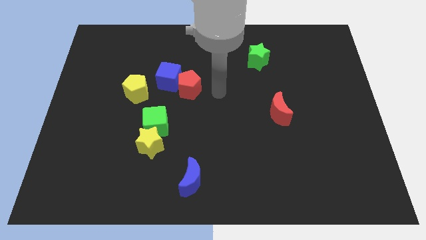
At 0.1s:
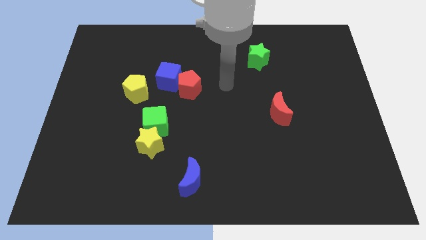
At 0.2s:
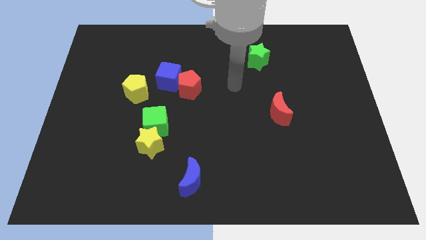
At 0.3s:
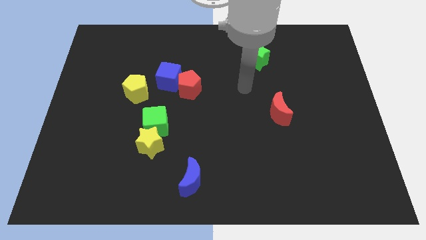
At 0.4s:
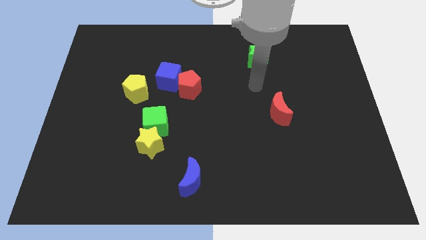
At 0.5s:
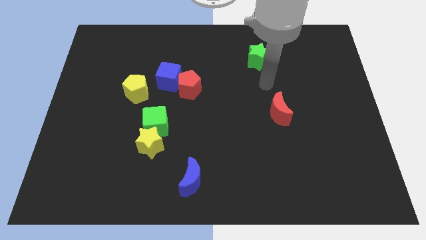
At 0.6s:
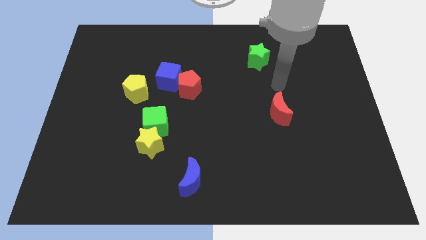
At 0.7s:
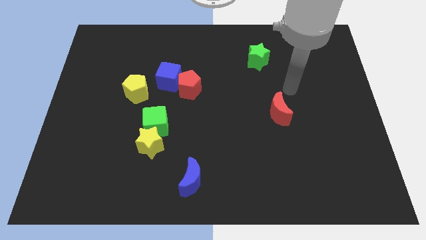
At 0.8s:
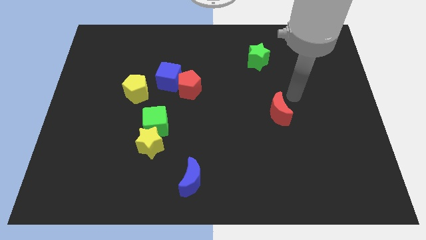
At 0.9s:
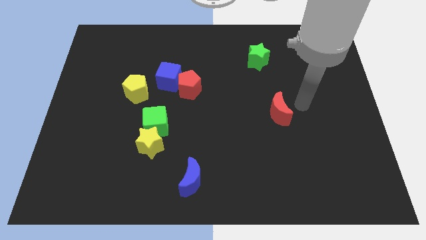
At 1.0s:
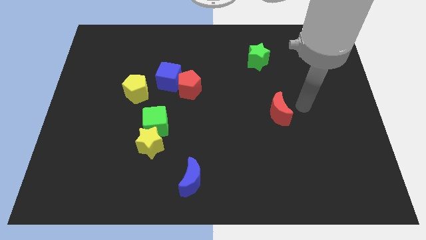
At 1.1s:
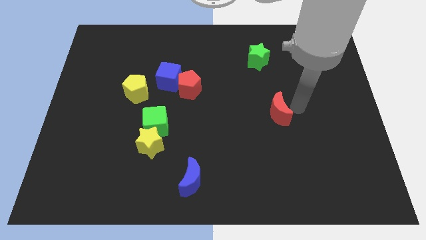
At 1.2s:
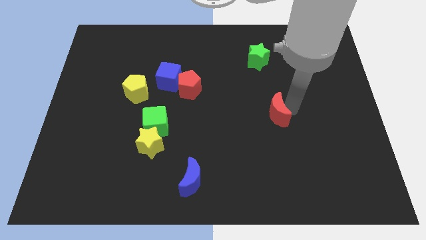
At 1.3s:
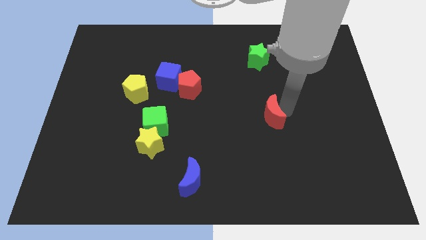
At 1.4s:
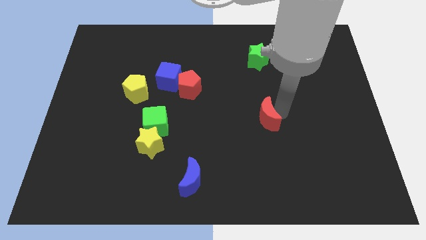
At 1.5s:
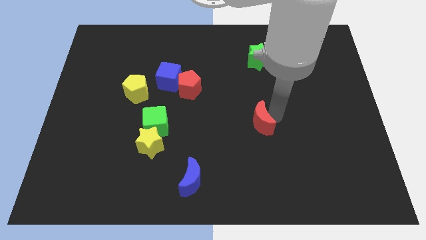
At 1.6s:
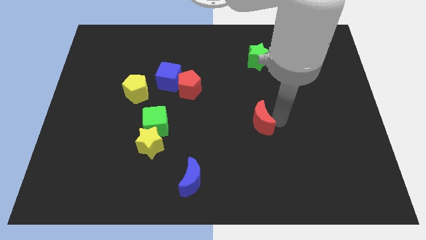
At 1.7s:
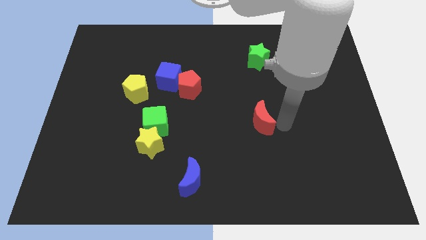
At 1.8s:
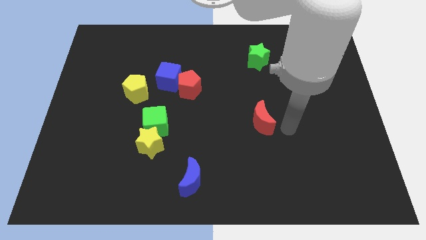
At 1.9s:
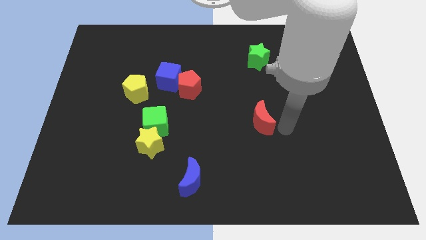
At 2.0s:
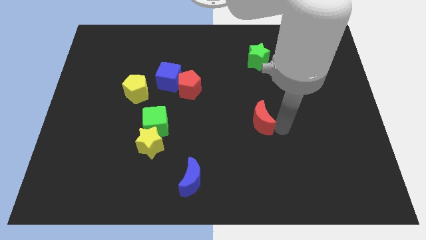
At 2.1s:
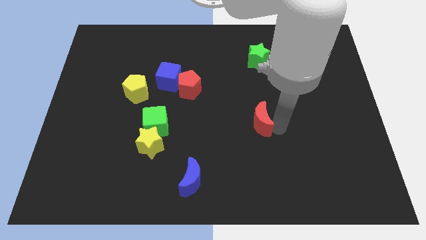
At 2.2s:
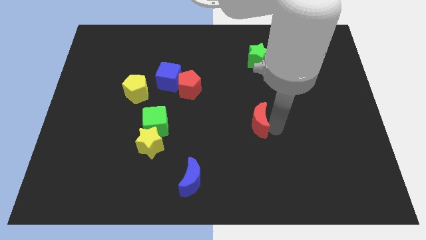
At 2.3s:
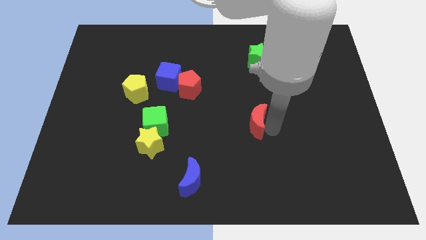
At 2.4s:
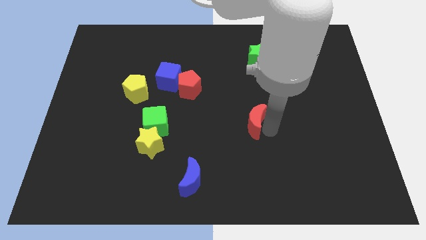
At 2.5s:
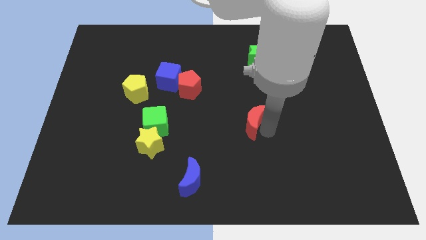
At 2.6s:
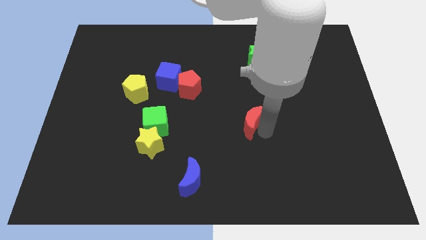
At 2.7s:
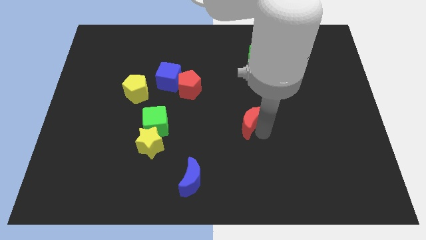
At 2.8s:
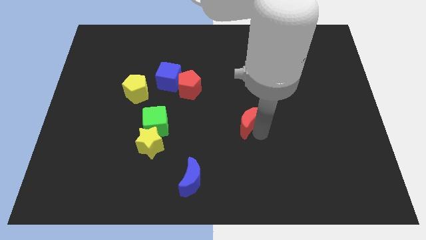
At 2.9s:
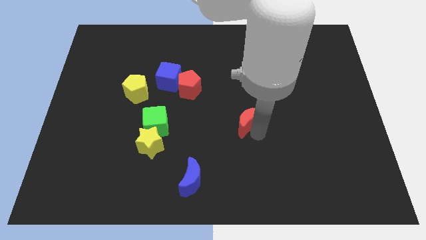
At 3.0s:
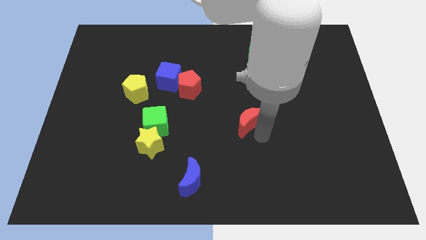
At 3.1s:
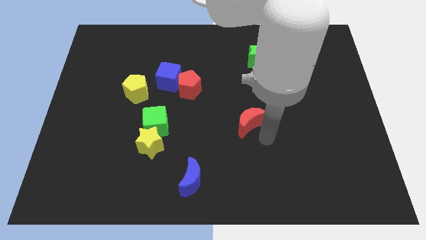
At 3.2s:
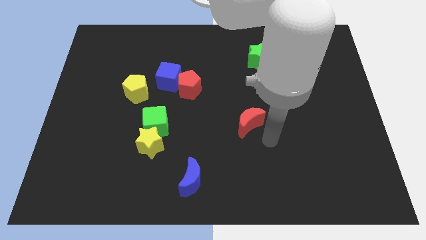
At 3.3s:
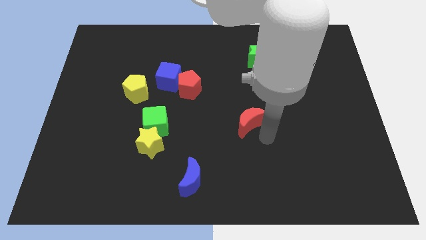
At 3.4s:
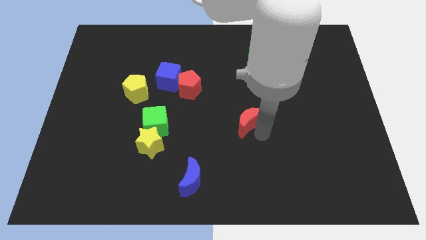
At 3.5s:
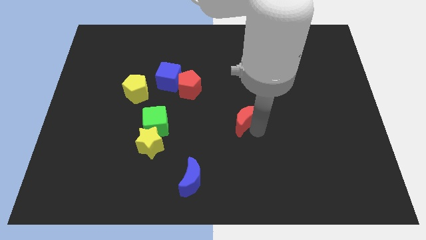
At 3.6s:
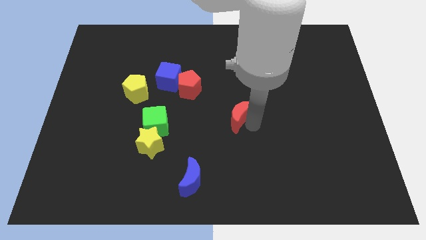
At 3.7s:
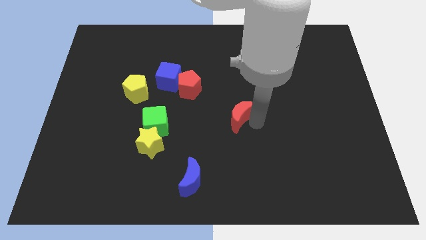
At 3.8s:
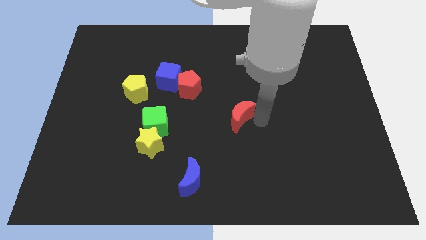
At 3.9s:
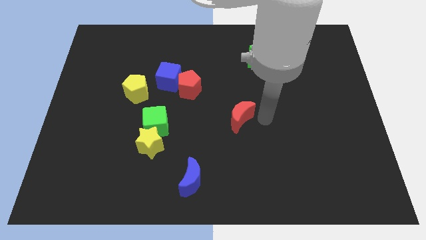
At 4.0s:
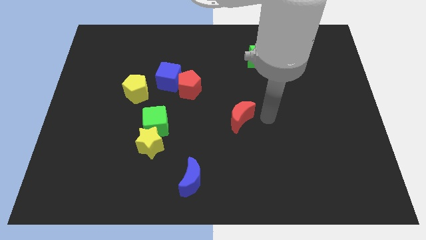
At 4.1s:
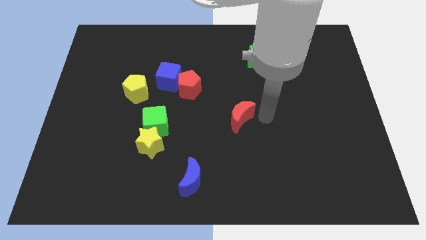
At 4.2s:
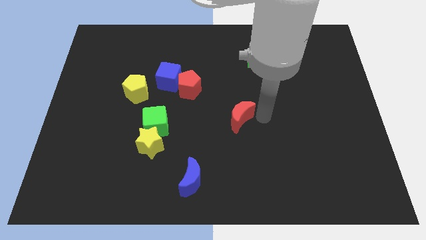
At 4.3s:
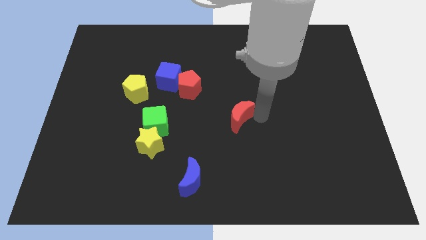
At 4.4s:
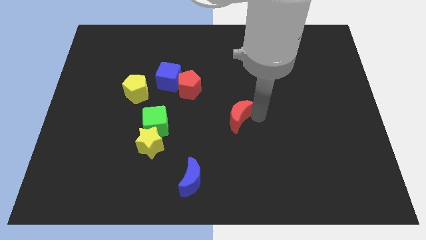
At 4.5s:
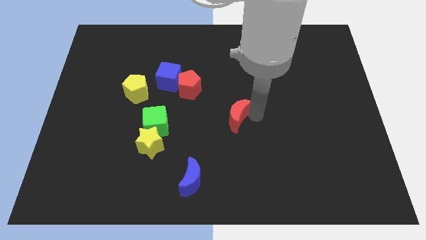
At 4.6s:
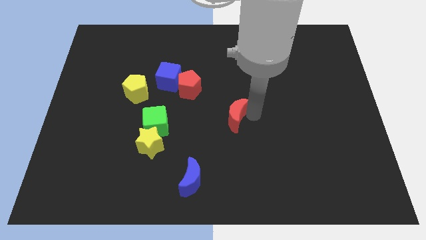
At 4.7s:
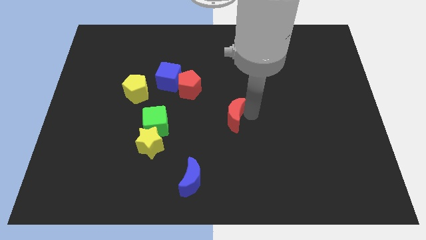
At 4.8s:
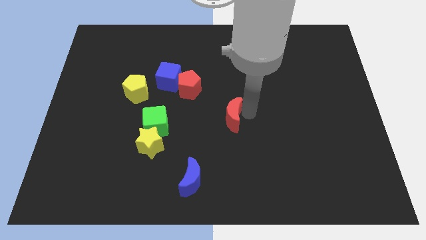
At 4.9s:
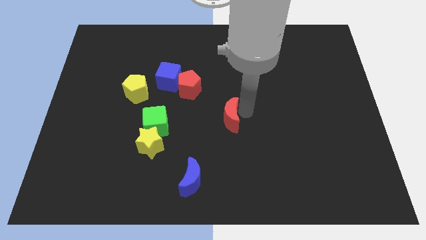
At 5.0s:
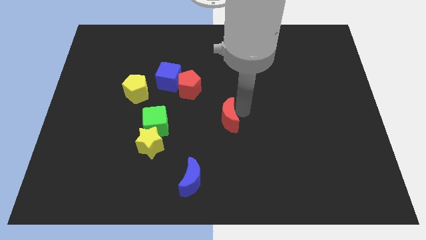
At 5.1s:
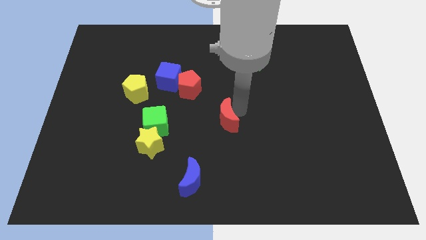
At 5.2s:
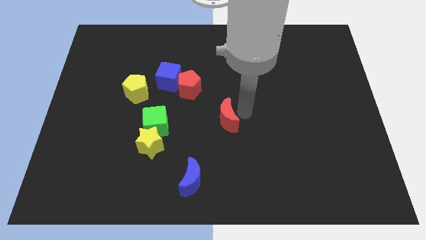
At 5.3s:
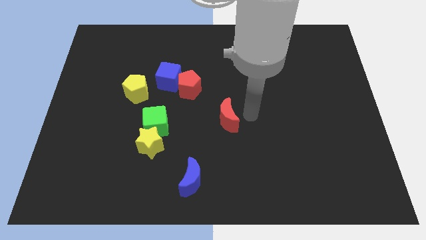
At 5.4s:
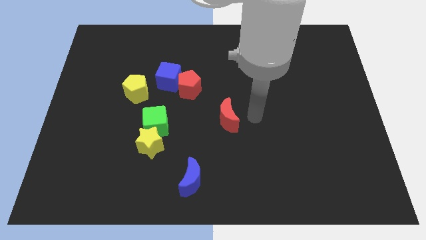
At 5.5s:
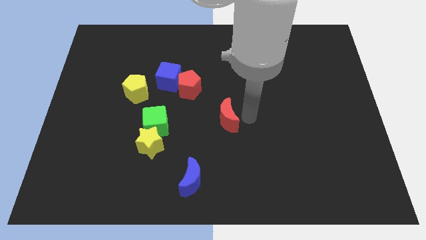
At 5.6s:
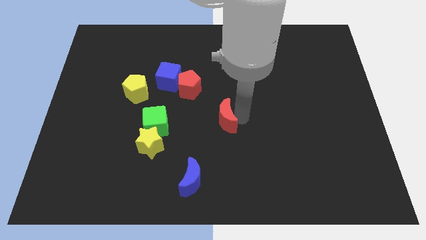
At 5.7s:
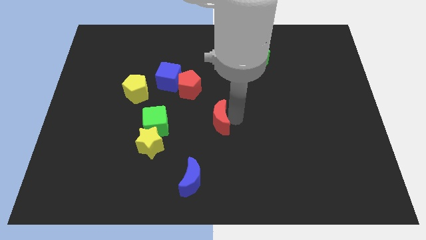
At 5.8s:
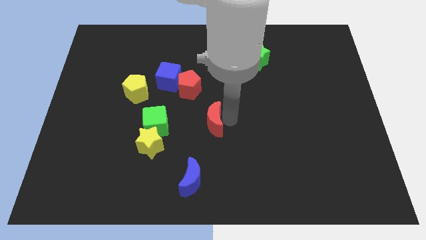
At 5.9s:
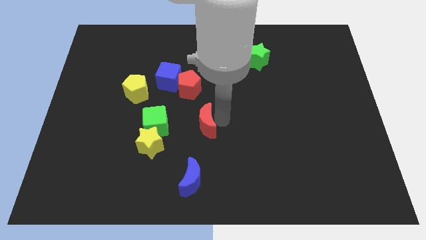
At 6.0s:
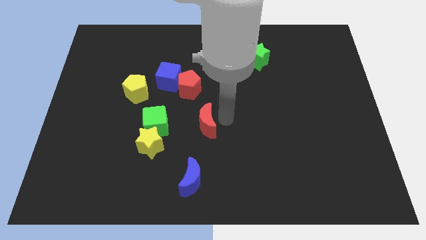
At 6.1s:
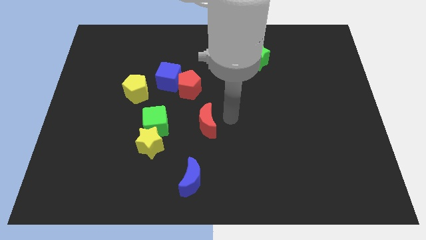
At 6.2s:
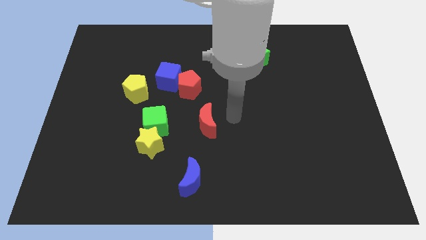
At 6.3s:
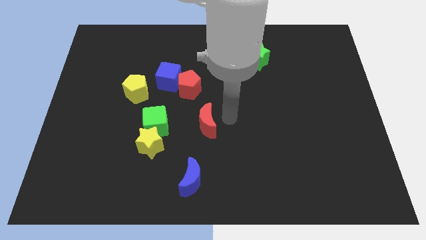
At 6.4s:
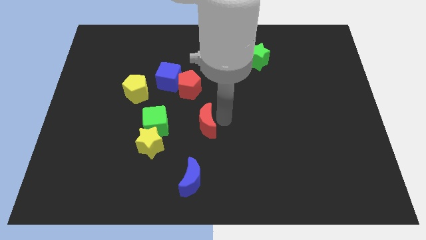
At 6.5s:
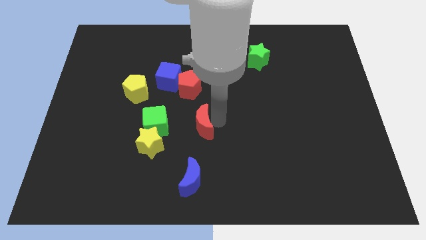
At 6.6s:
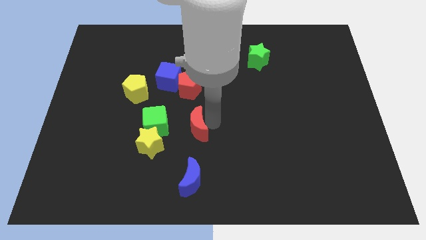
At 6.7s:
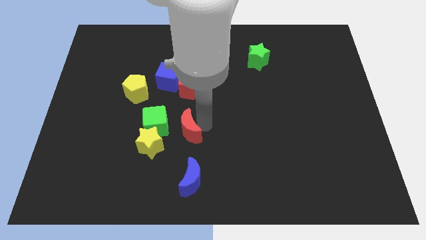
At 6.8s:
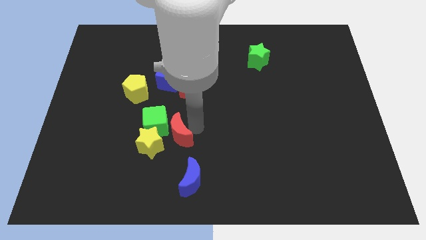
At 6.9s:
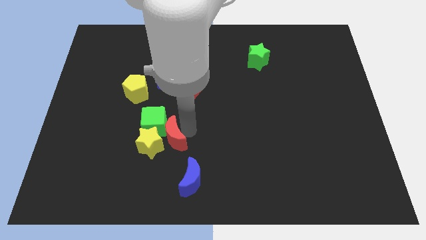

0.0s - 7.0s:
slide the red moon towards the yellow star
